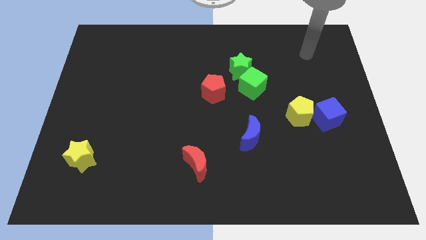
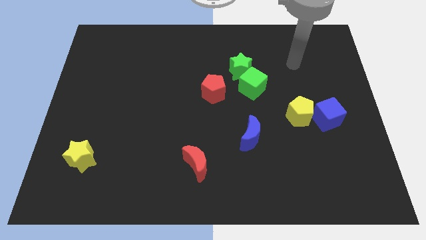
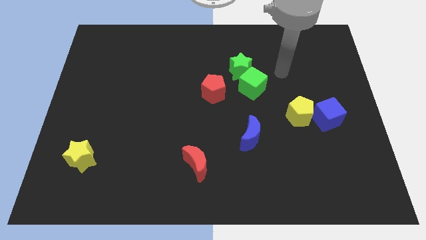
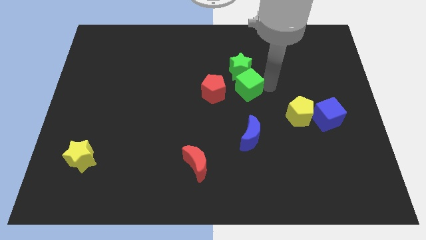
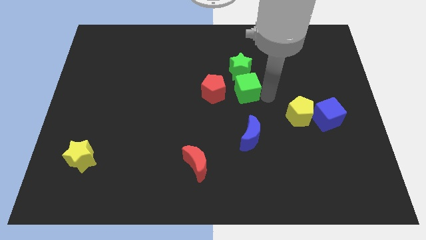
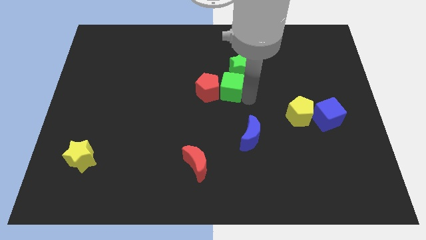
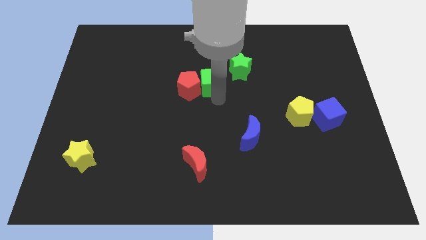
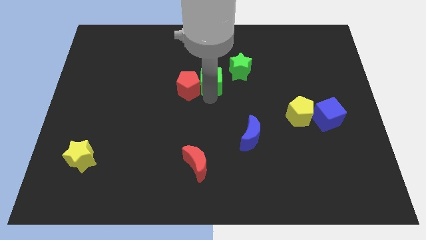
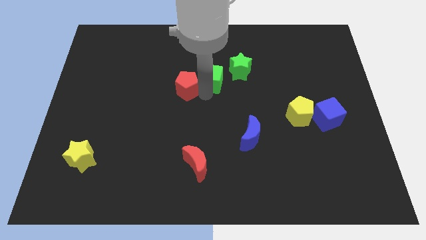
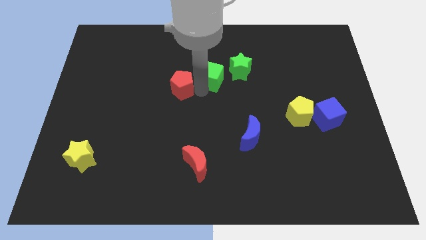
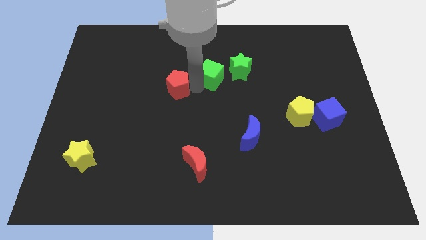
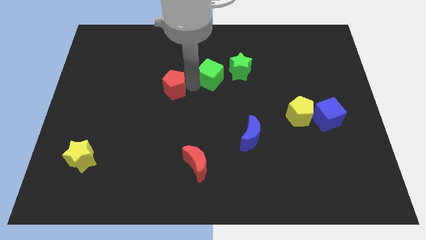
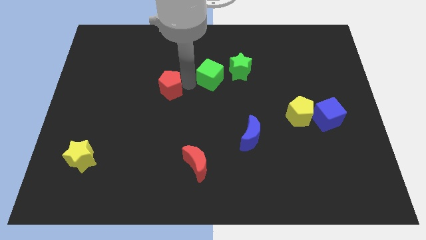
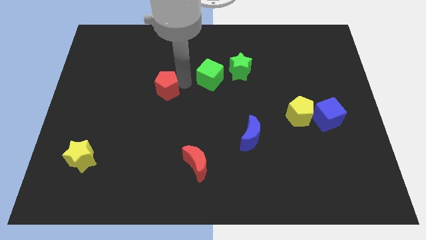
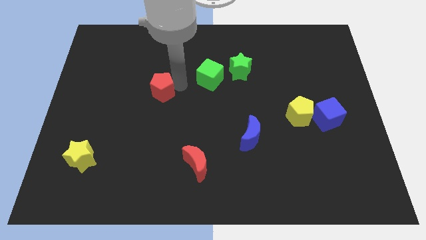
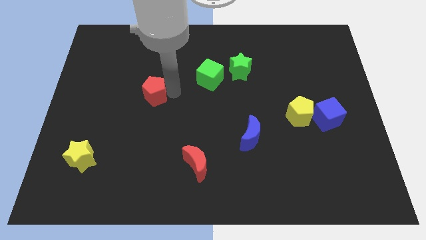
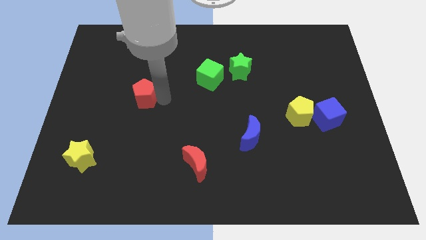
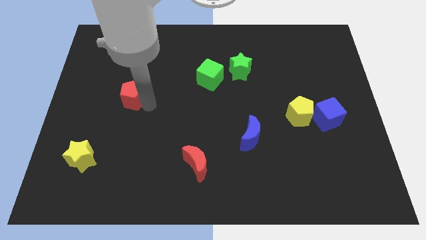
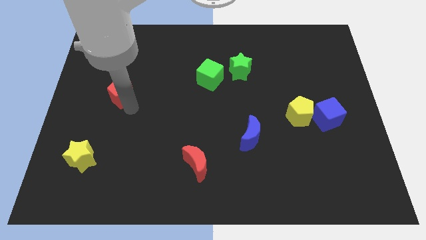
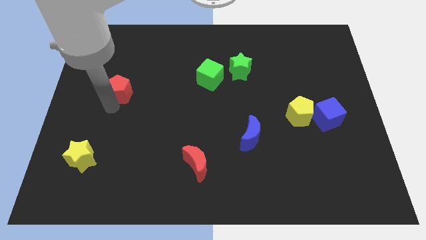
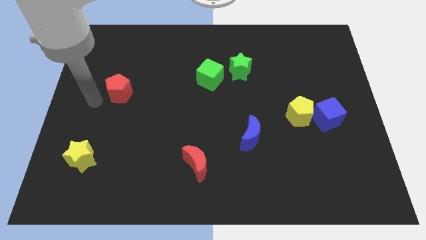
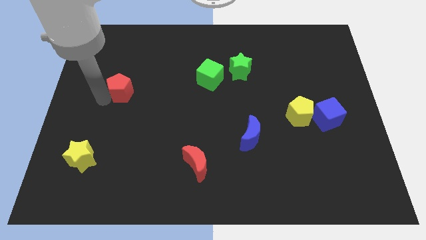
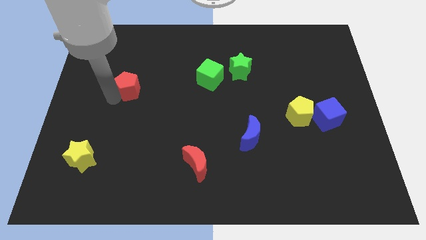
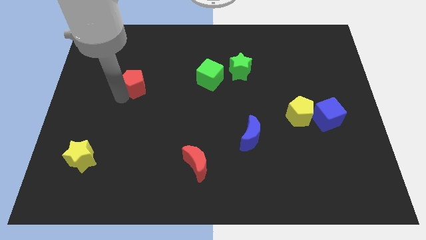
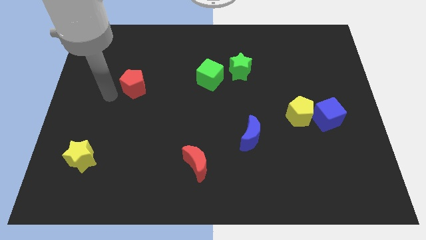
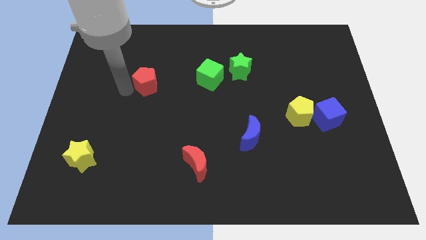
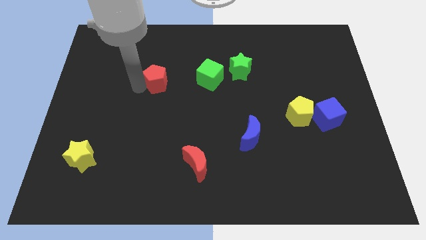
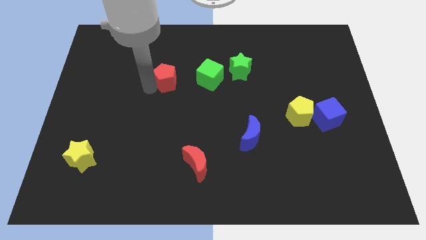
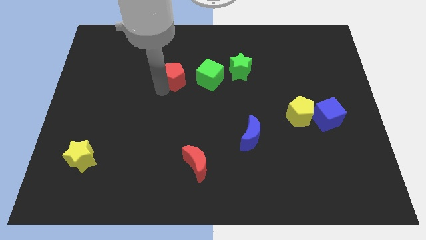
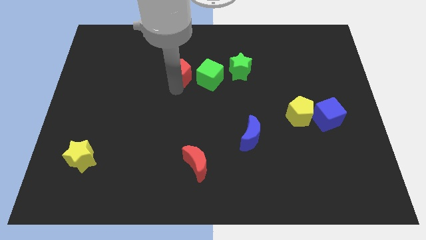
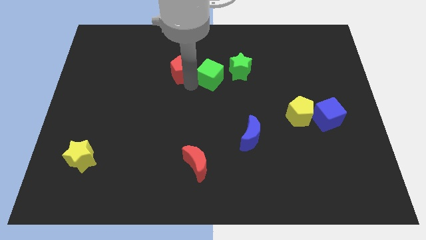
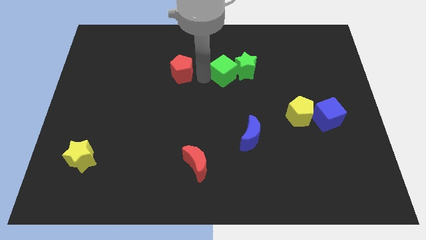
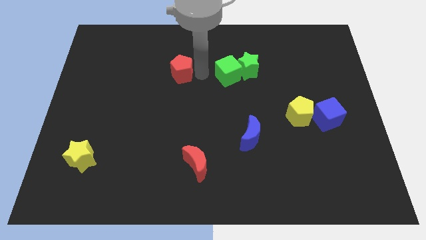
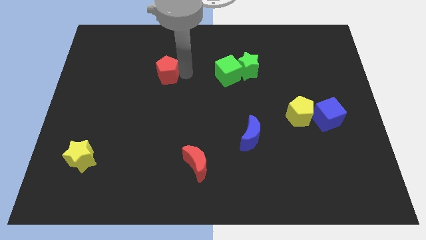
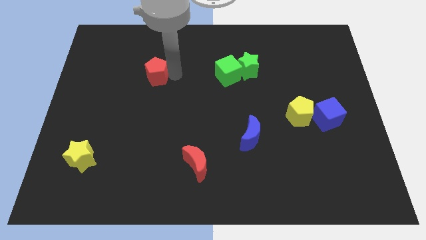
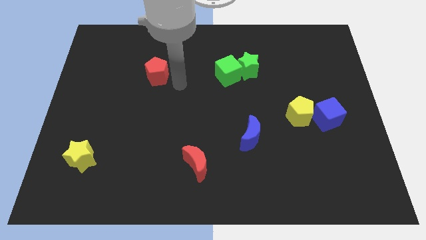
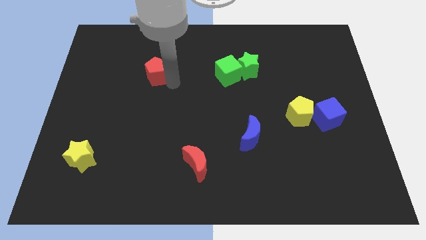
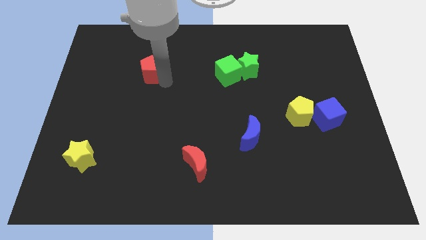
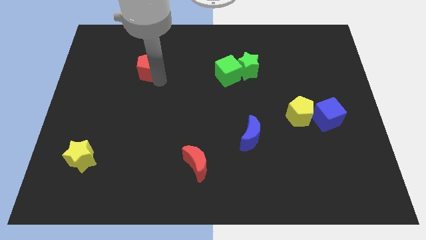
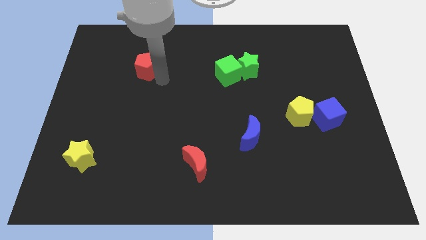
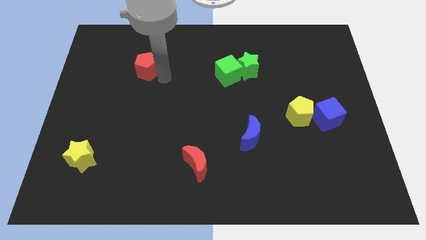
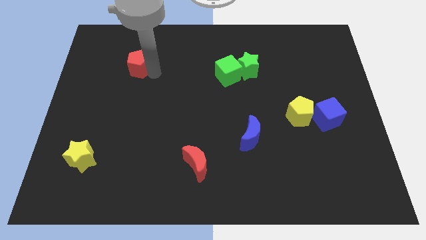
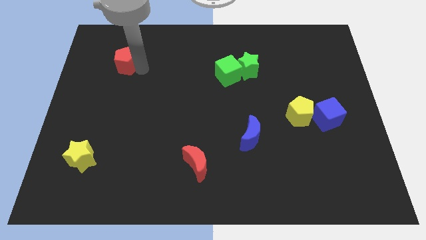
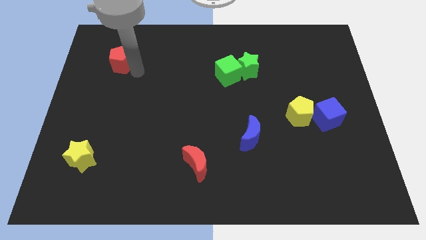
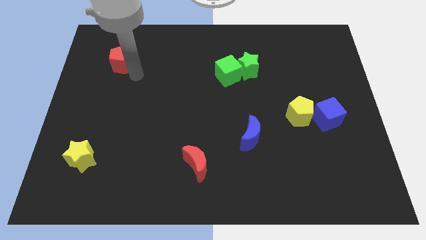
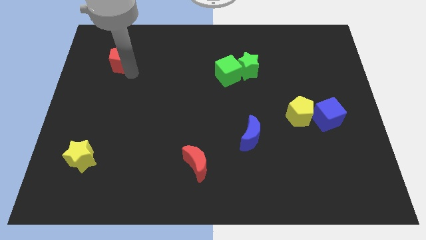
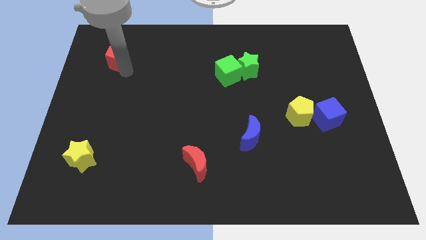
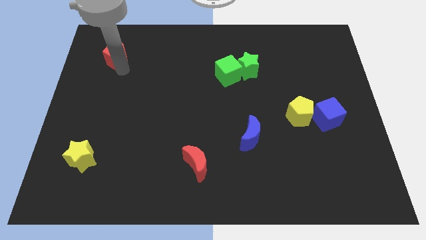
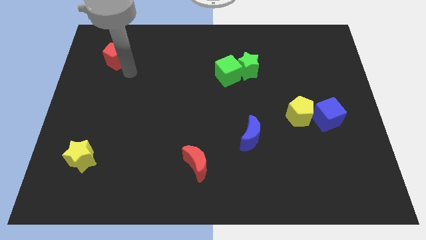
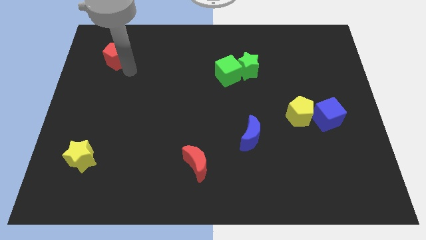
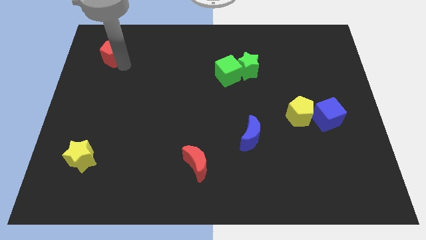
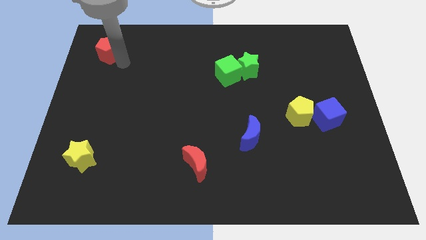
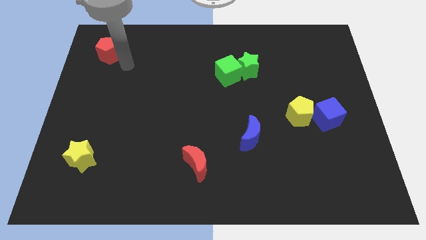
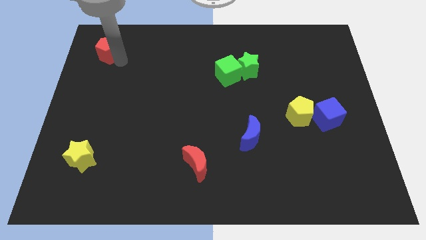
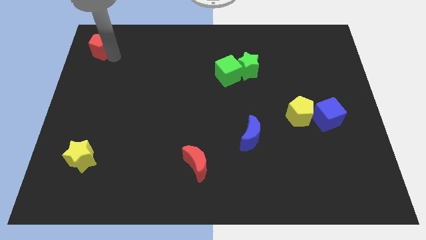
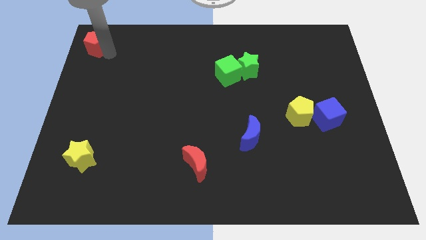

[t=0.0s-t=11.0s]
push the red pentagon to the top left

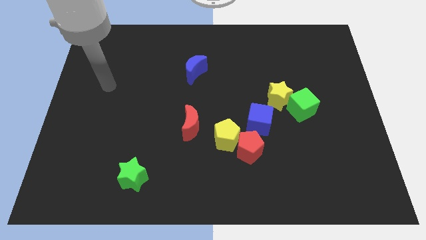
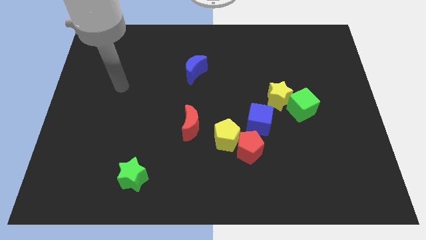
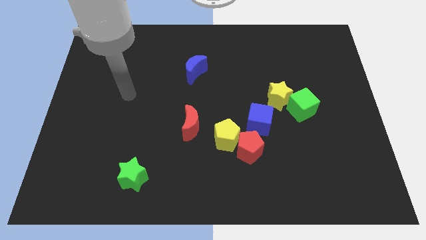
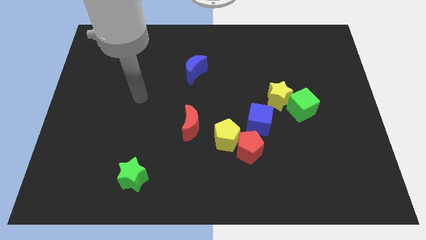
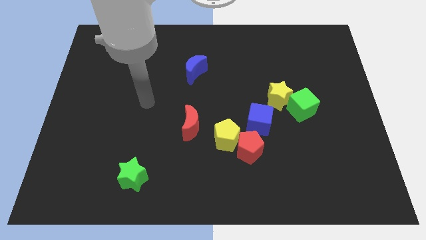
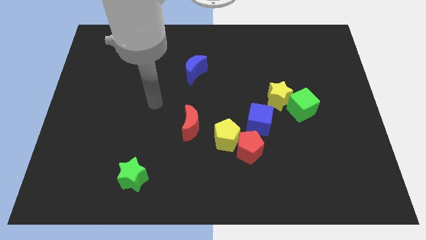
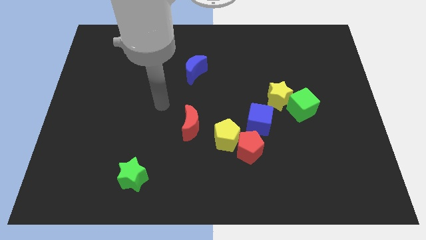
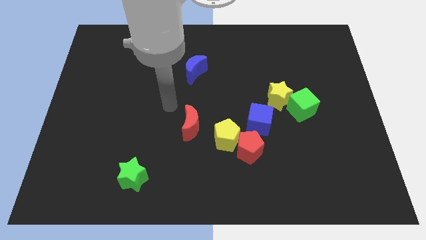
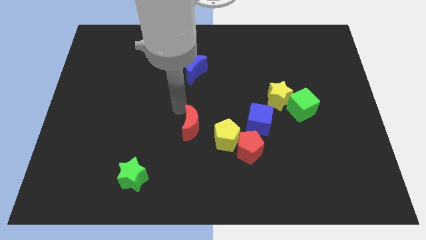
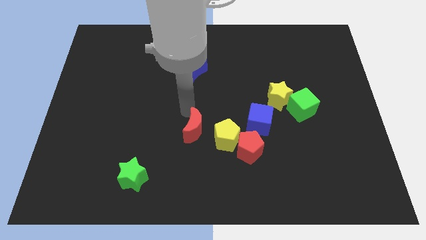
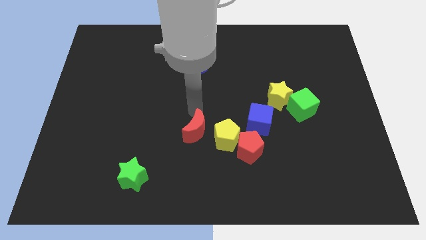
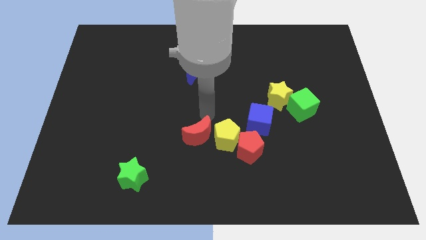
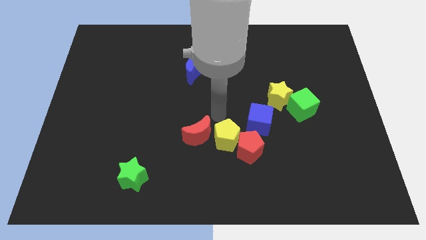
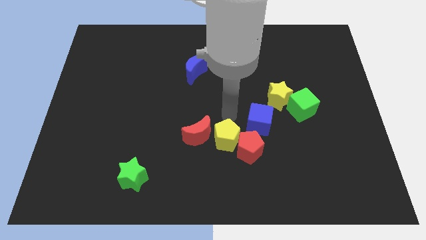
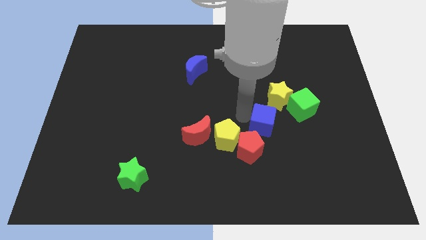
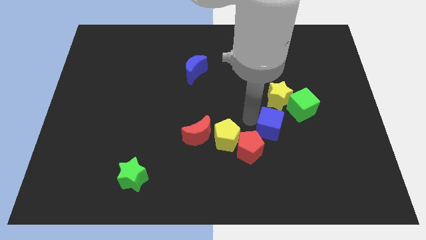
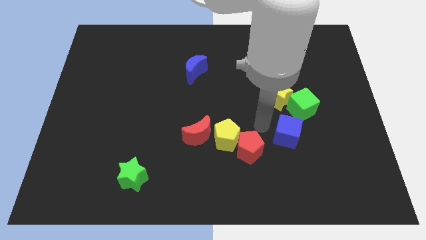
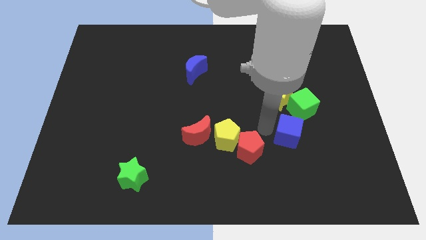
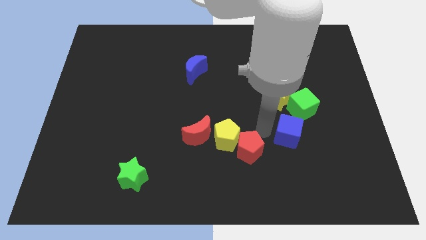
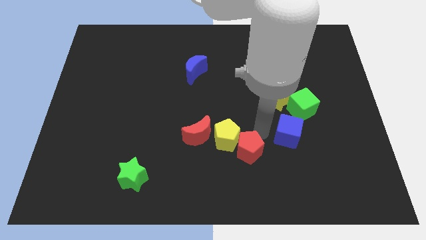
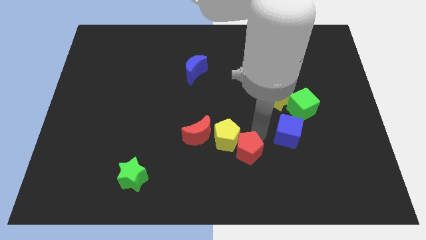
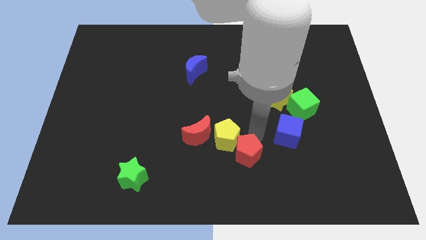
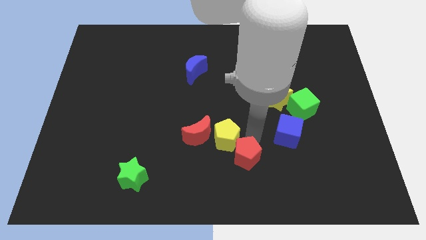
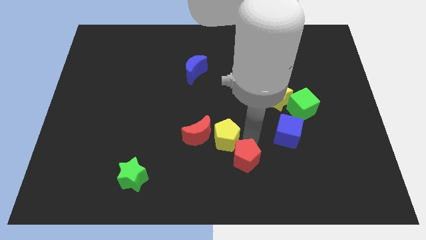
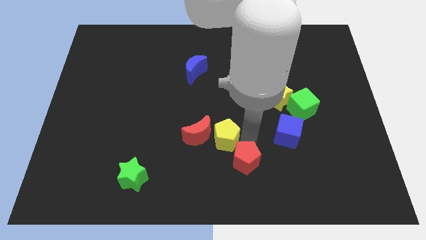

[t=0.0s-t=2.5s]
push the red pentagon to the bottom side
